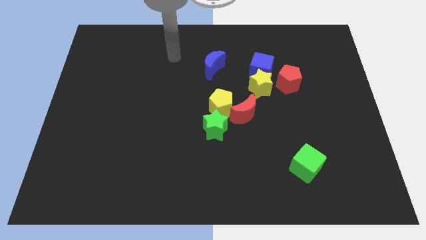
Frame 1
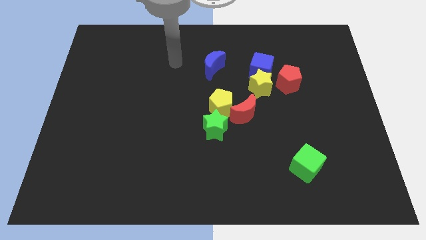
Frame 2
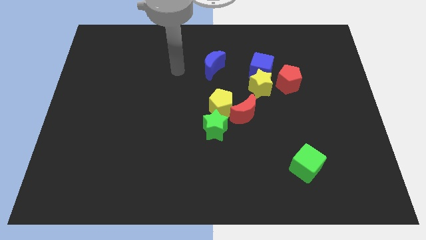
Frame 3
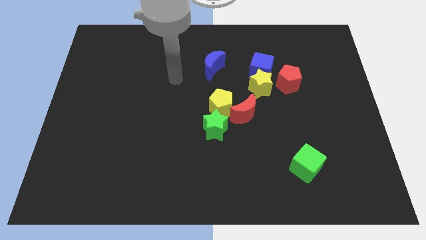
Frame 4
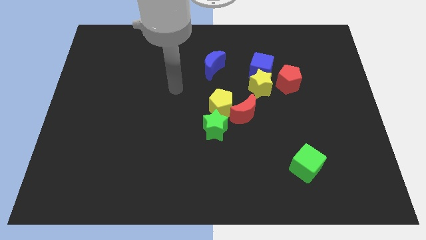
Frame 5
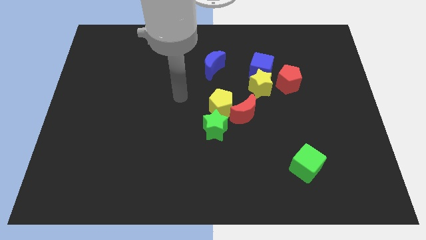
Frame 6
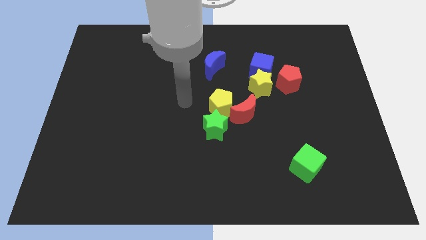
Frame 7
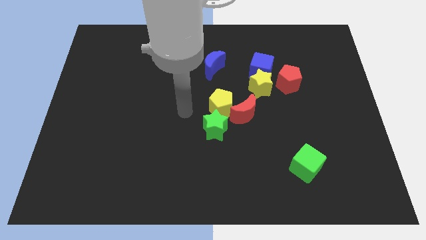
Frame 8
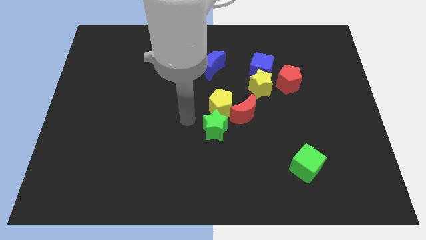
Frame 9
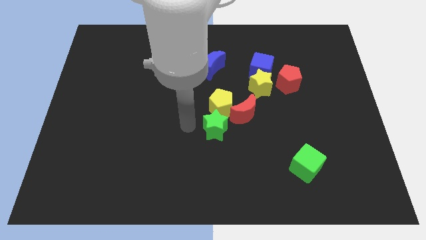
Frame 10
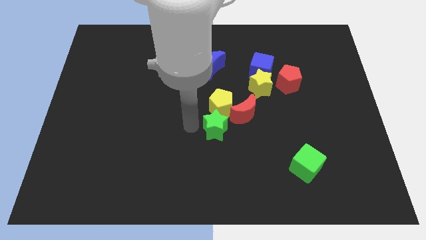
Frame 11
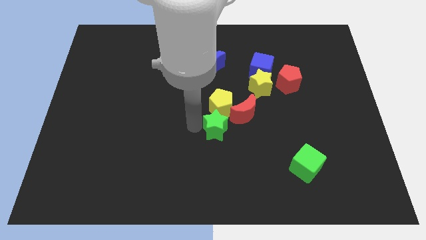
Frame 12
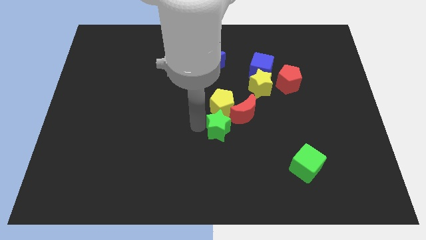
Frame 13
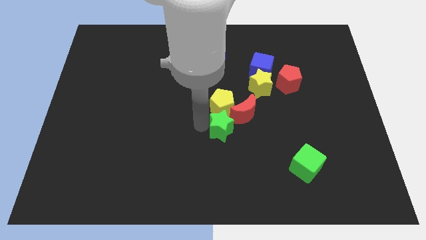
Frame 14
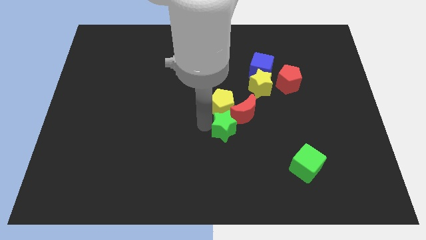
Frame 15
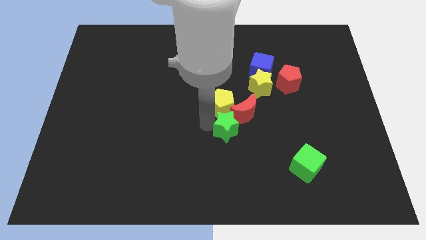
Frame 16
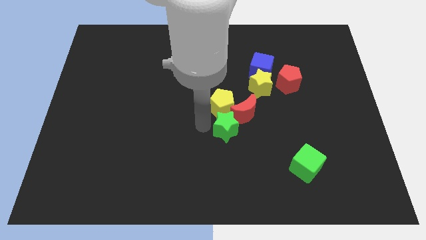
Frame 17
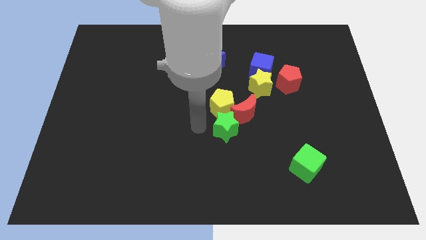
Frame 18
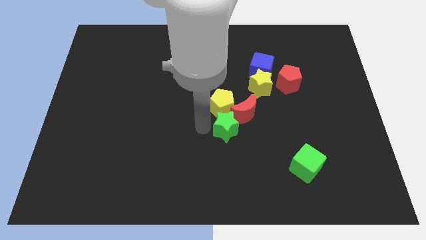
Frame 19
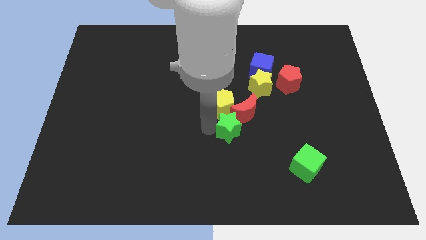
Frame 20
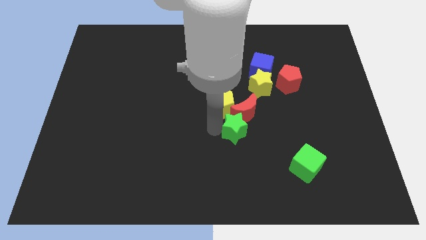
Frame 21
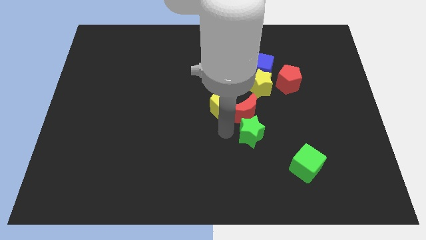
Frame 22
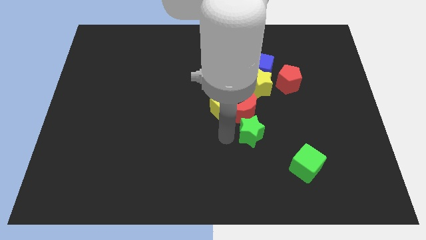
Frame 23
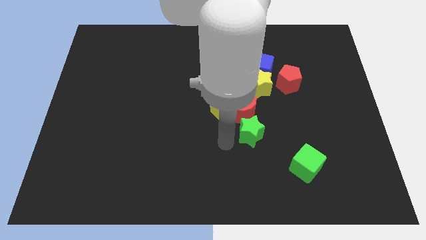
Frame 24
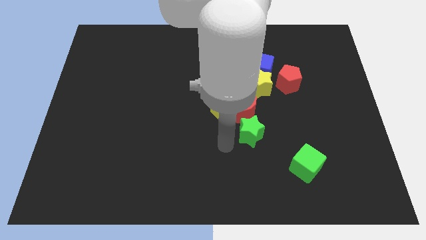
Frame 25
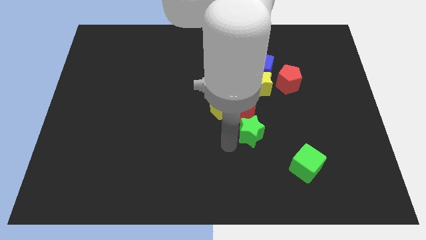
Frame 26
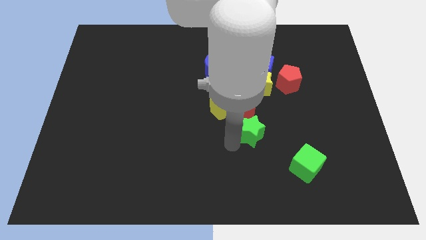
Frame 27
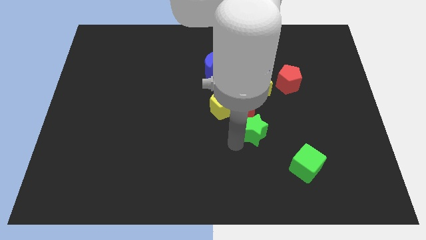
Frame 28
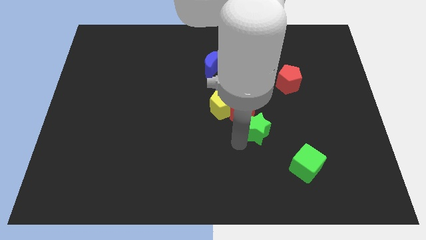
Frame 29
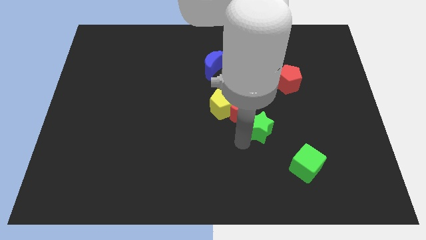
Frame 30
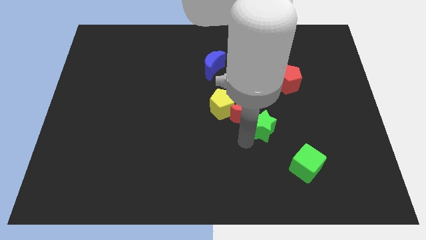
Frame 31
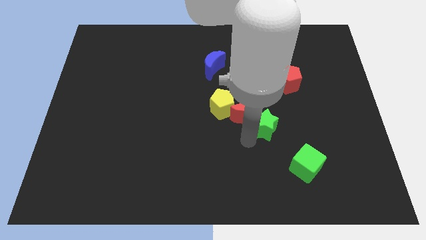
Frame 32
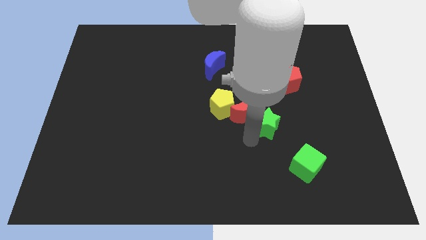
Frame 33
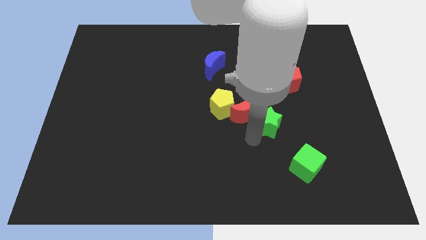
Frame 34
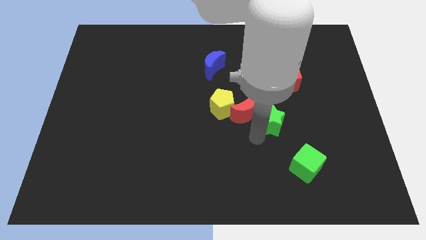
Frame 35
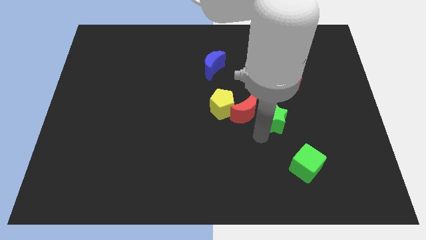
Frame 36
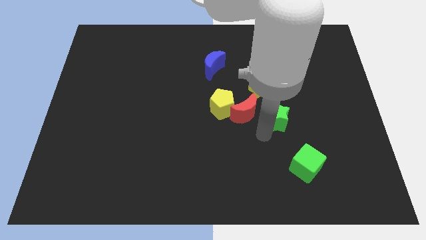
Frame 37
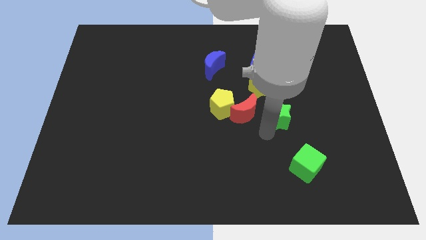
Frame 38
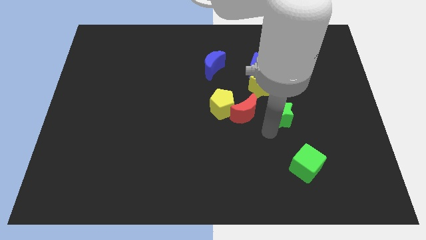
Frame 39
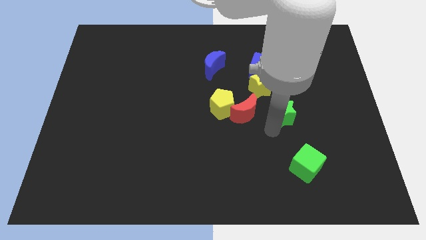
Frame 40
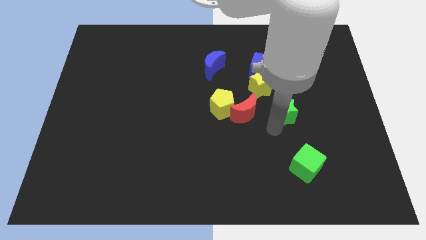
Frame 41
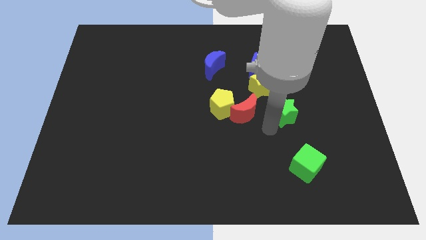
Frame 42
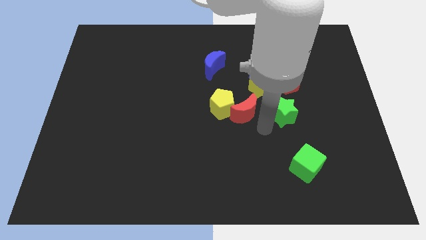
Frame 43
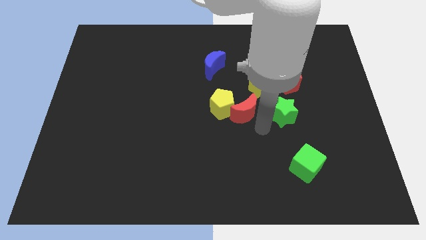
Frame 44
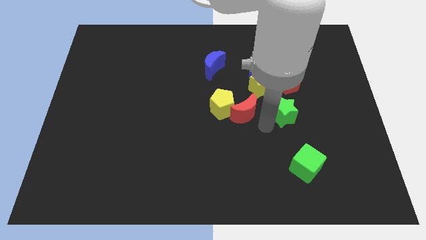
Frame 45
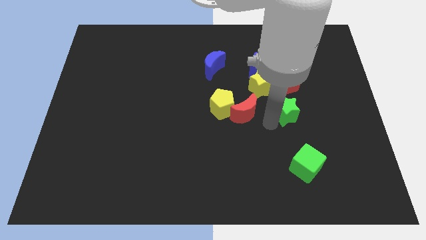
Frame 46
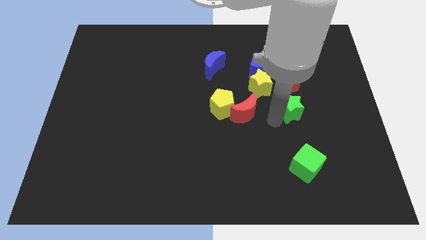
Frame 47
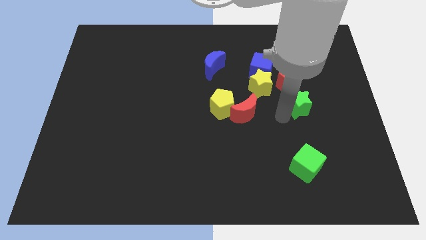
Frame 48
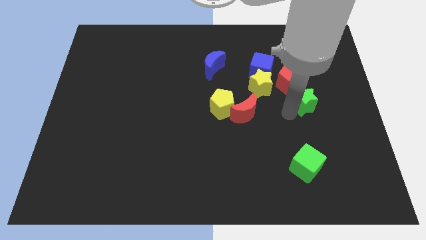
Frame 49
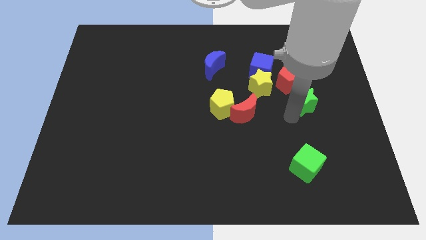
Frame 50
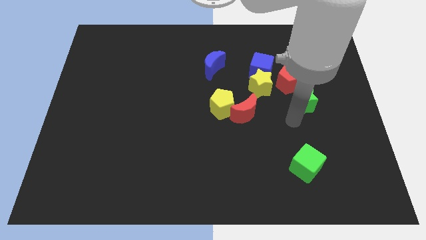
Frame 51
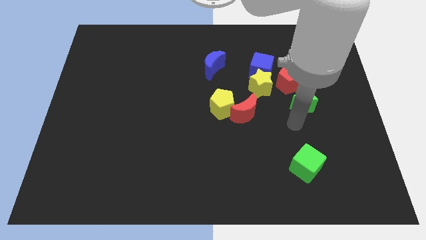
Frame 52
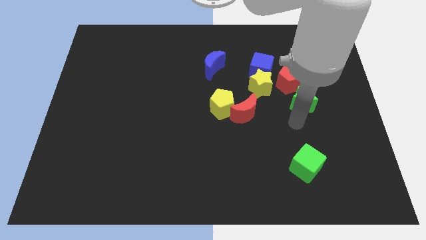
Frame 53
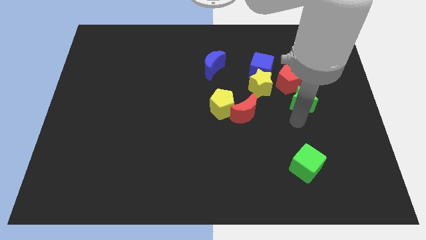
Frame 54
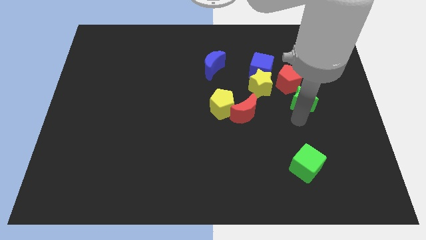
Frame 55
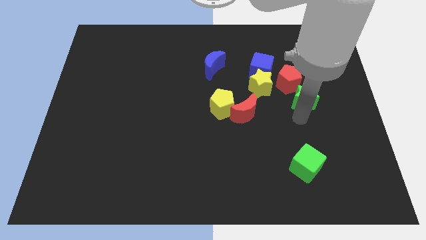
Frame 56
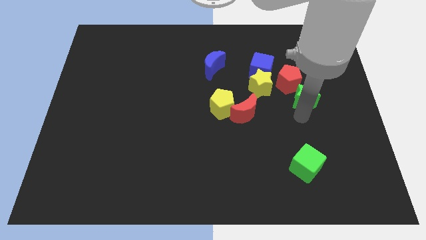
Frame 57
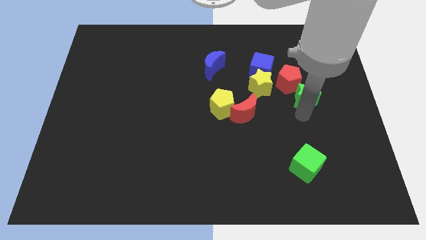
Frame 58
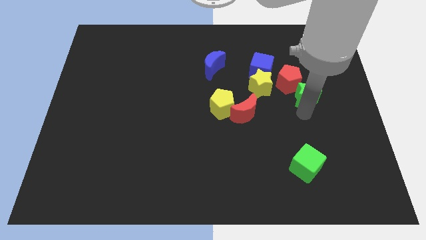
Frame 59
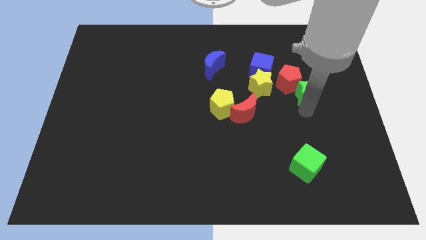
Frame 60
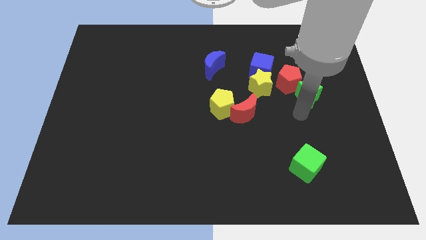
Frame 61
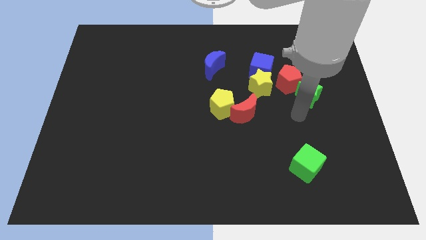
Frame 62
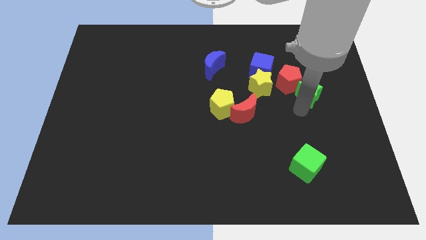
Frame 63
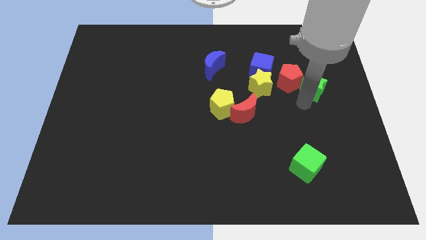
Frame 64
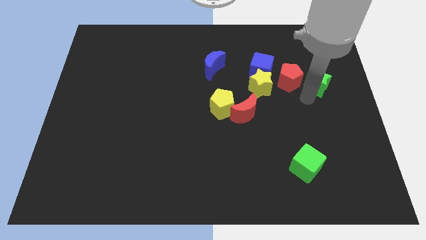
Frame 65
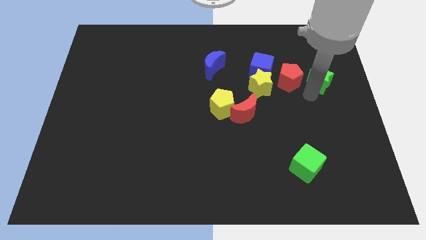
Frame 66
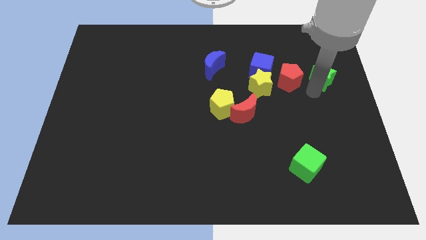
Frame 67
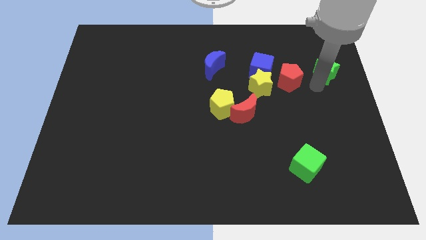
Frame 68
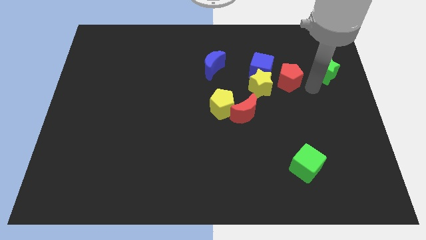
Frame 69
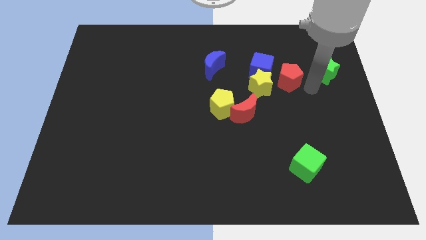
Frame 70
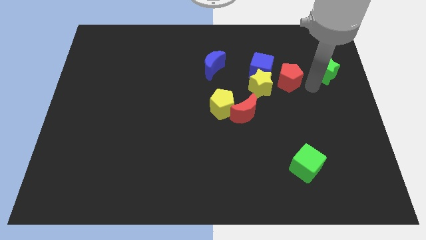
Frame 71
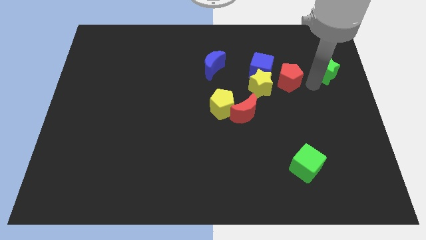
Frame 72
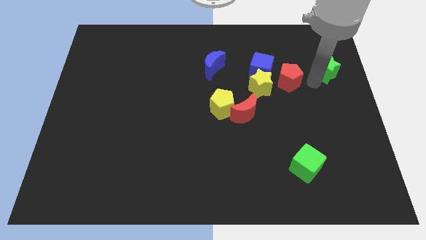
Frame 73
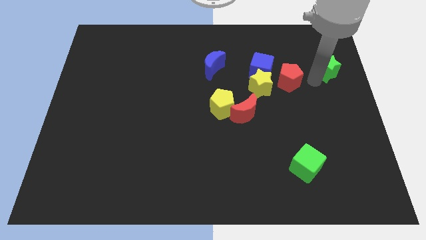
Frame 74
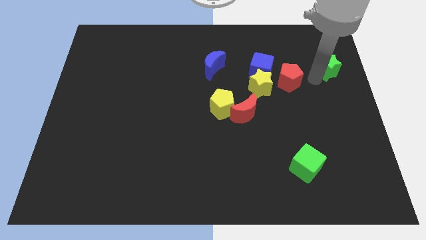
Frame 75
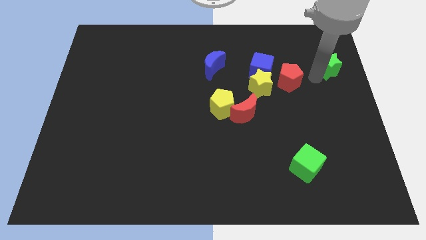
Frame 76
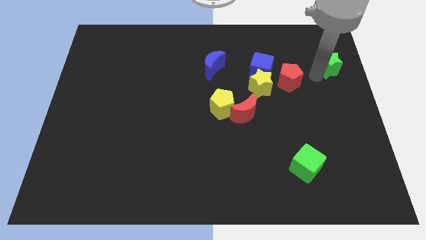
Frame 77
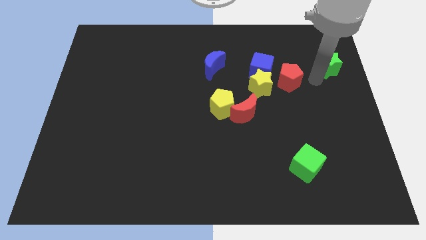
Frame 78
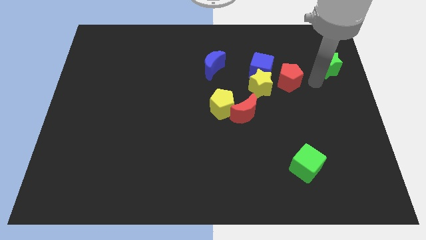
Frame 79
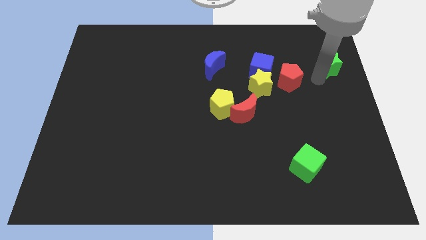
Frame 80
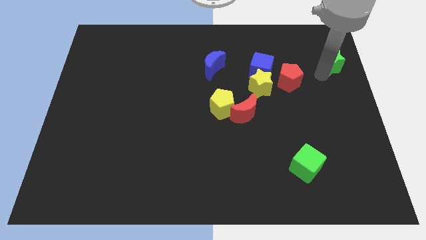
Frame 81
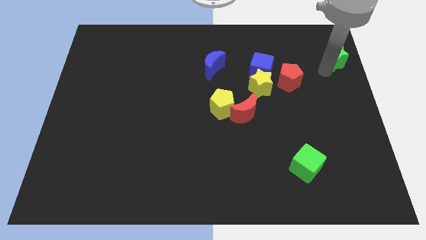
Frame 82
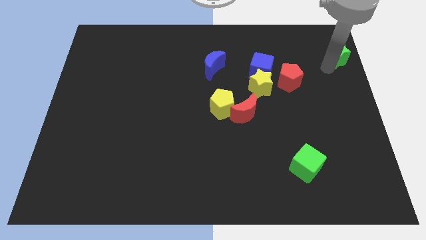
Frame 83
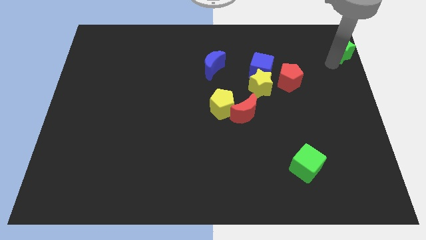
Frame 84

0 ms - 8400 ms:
move the green star to the top right
